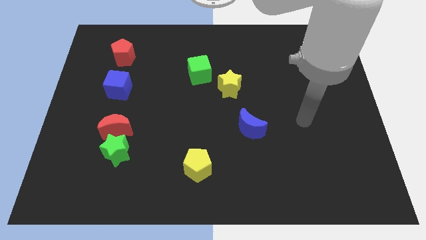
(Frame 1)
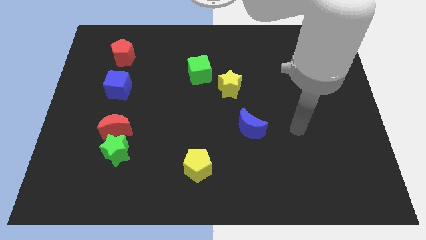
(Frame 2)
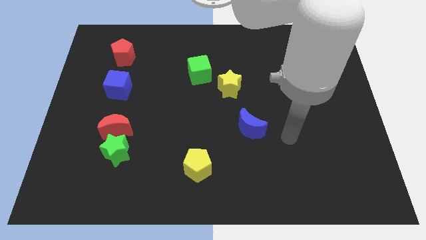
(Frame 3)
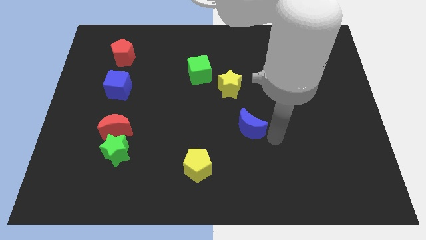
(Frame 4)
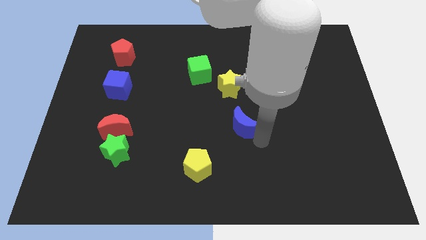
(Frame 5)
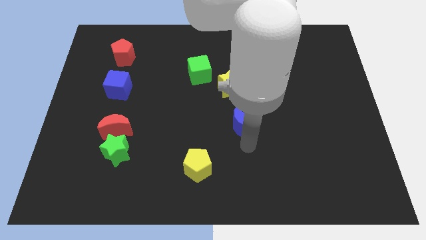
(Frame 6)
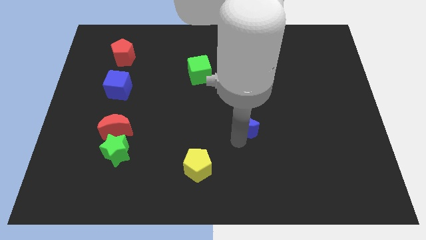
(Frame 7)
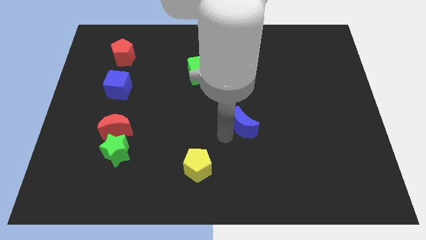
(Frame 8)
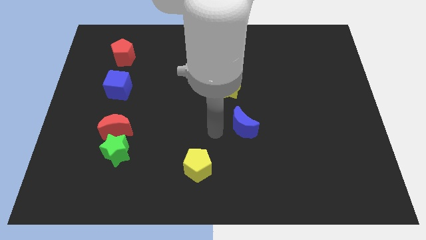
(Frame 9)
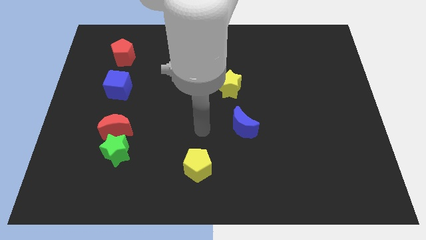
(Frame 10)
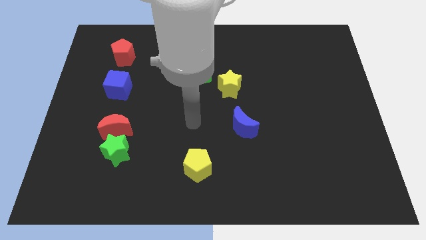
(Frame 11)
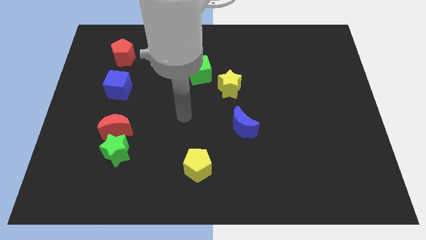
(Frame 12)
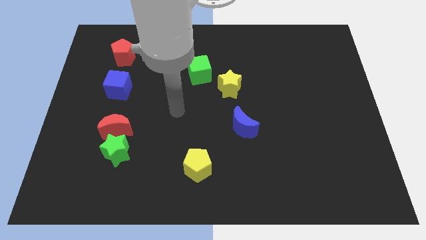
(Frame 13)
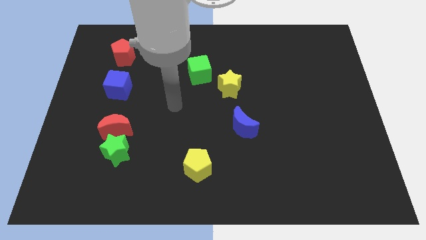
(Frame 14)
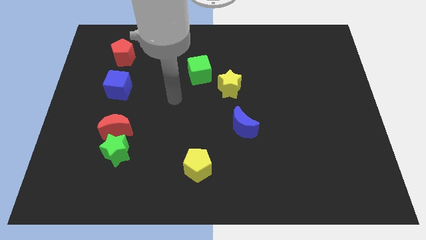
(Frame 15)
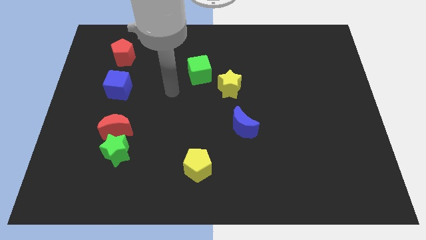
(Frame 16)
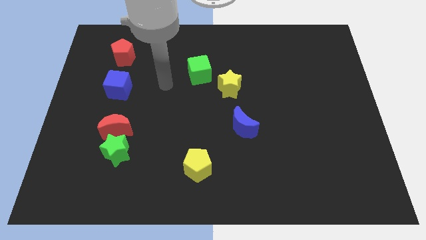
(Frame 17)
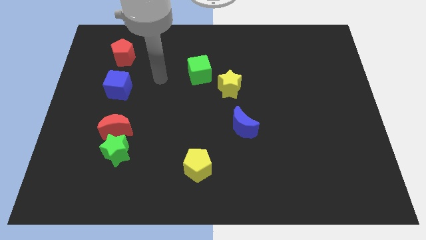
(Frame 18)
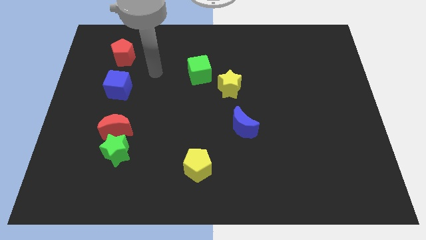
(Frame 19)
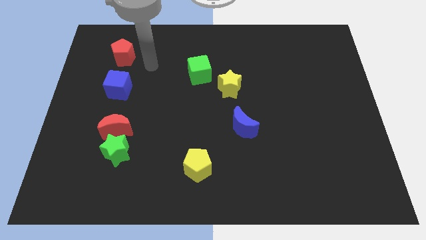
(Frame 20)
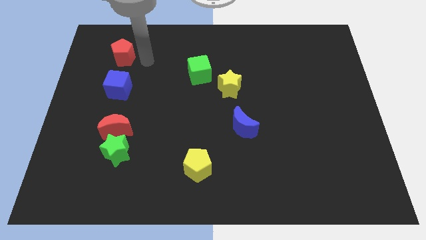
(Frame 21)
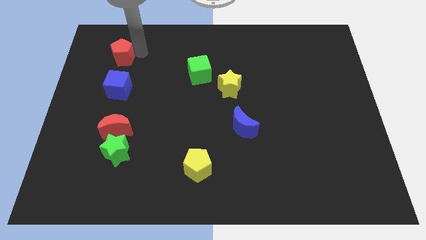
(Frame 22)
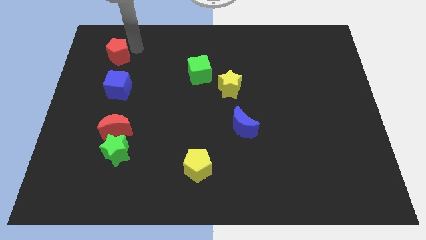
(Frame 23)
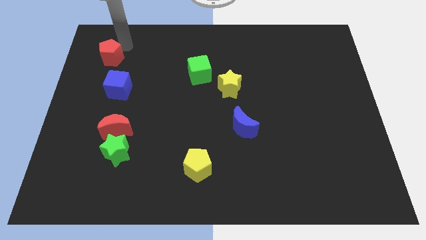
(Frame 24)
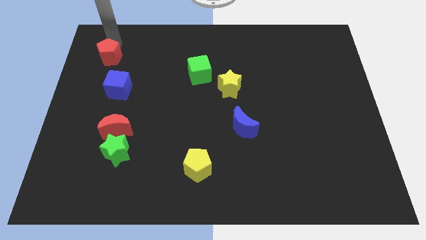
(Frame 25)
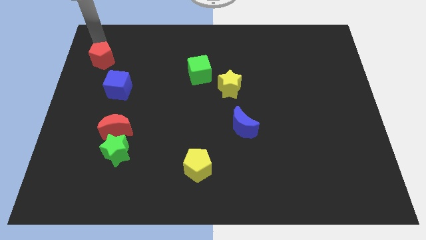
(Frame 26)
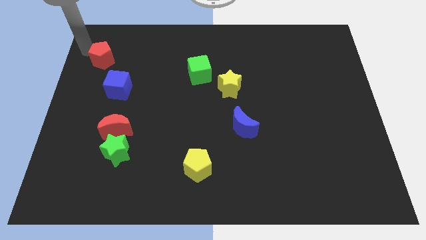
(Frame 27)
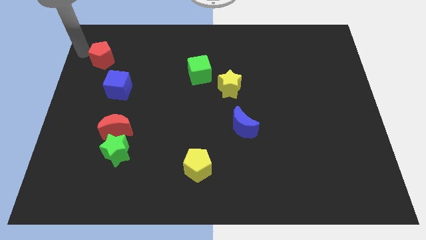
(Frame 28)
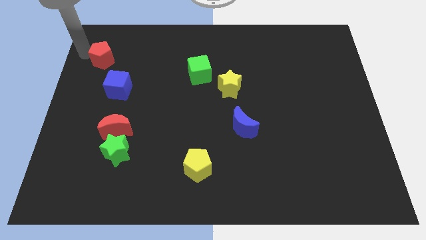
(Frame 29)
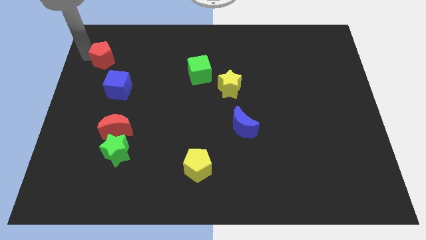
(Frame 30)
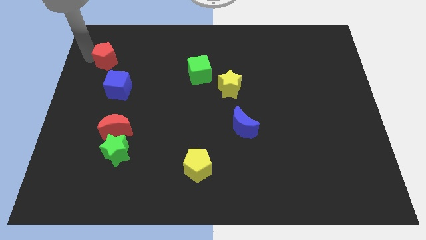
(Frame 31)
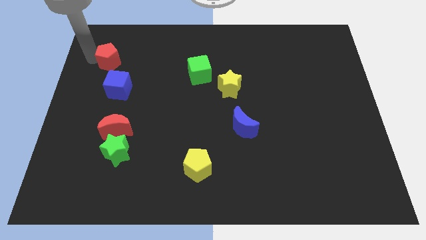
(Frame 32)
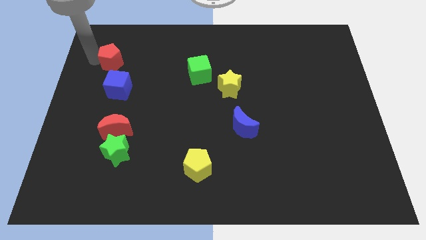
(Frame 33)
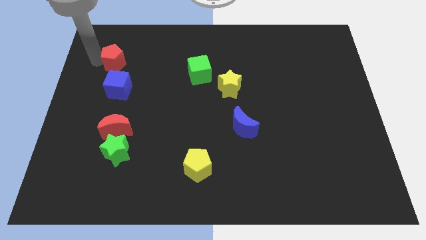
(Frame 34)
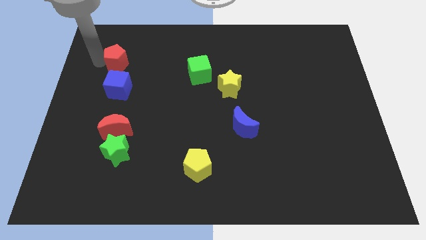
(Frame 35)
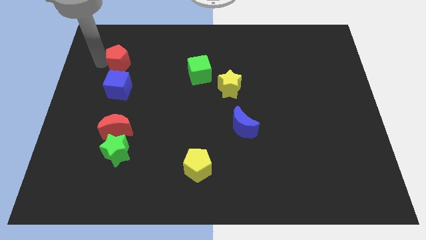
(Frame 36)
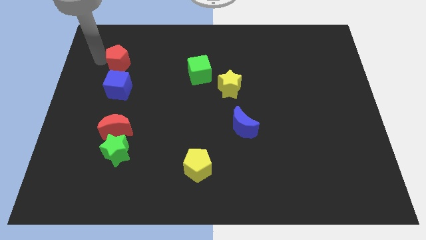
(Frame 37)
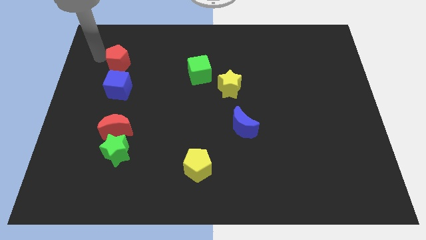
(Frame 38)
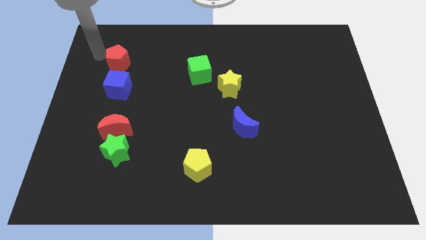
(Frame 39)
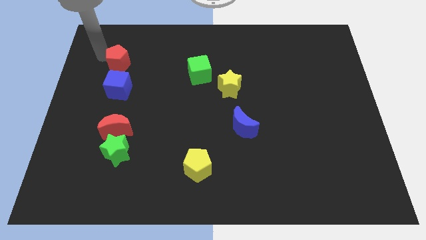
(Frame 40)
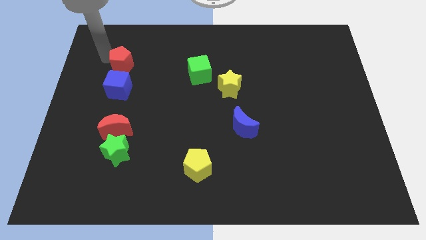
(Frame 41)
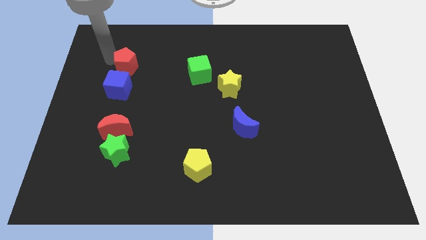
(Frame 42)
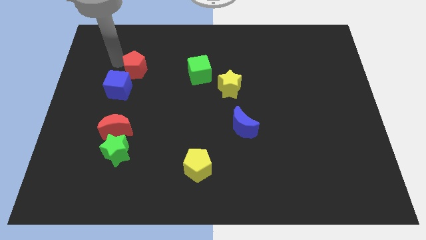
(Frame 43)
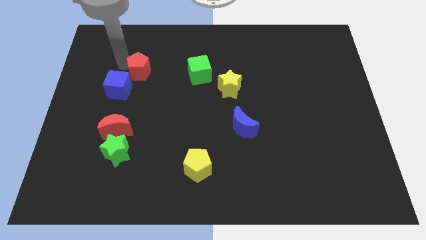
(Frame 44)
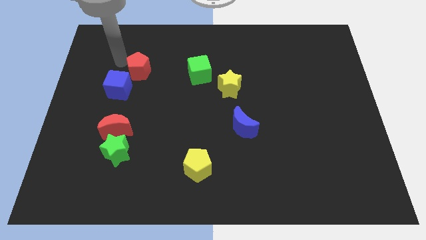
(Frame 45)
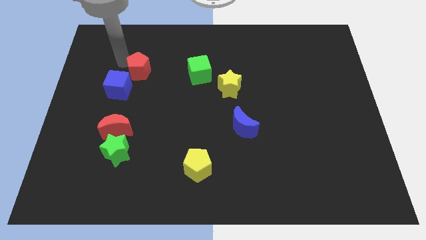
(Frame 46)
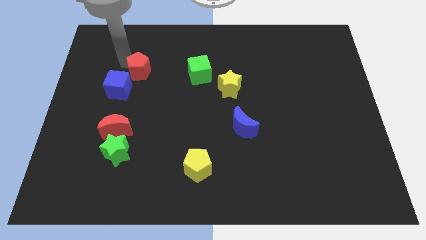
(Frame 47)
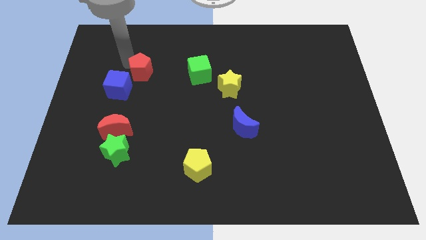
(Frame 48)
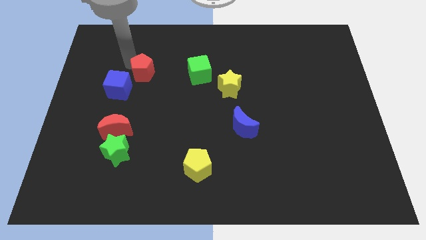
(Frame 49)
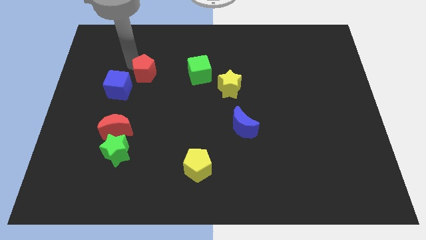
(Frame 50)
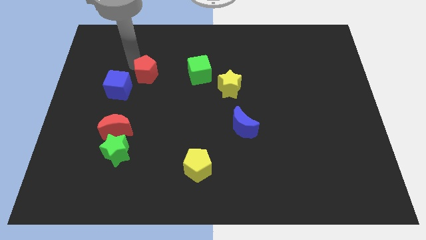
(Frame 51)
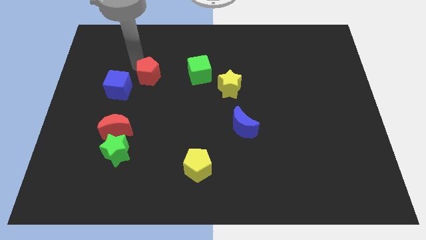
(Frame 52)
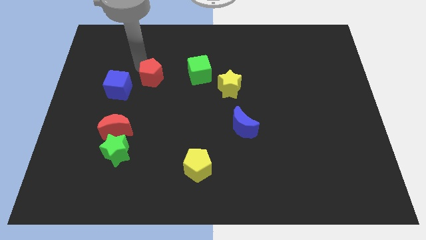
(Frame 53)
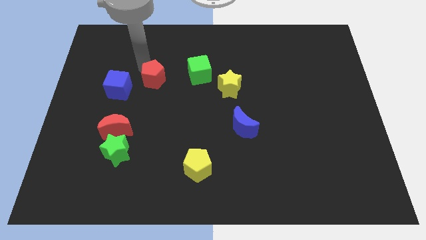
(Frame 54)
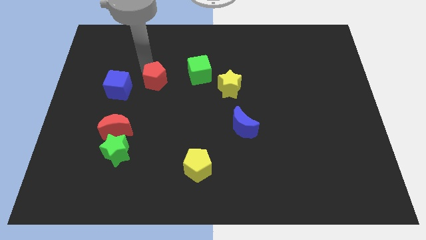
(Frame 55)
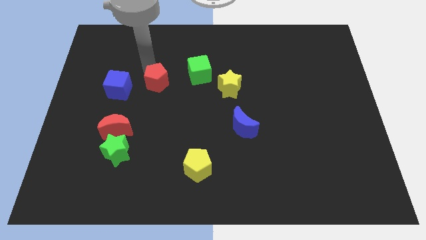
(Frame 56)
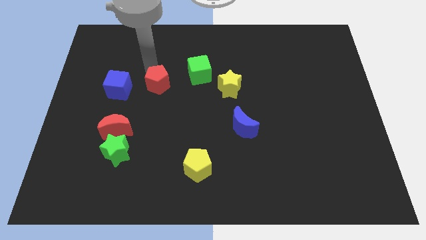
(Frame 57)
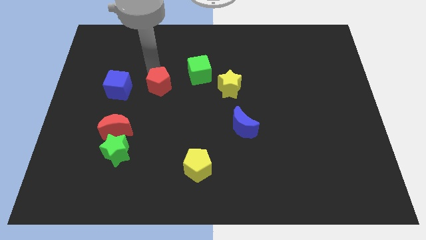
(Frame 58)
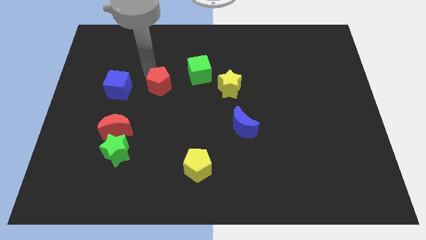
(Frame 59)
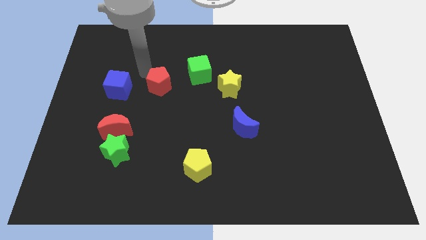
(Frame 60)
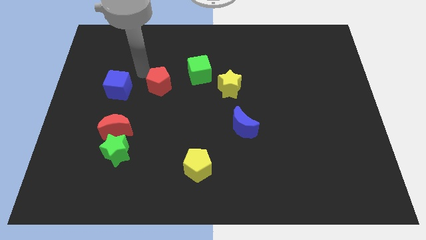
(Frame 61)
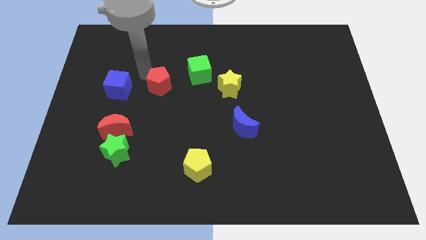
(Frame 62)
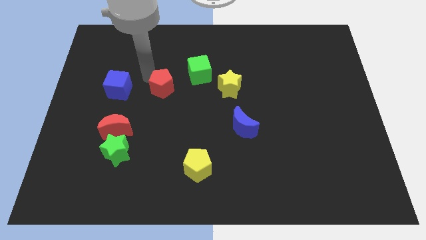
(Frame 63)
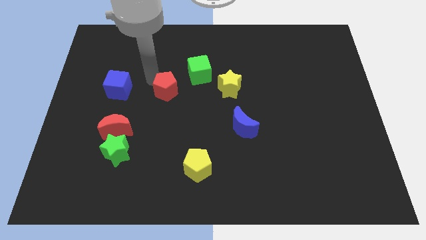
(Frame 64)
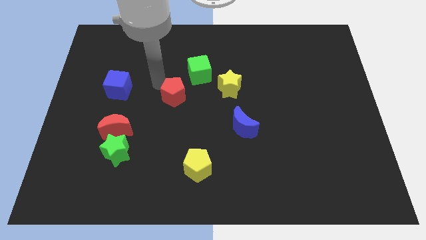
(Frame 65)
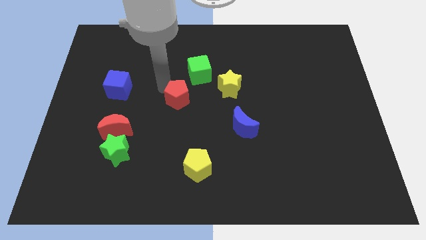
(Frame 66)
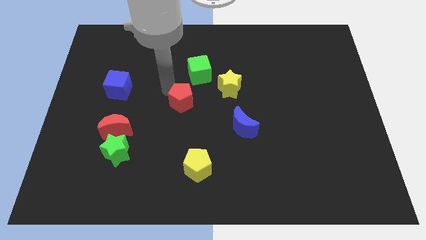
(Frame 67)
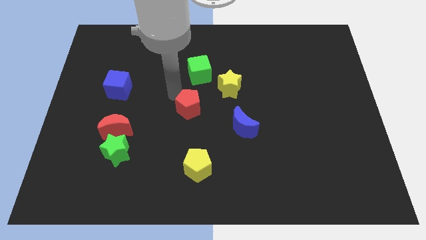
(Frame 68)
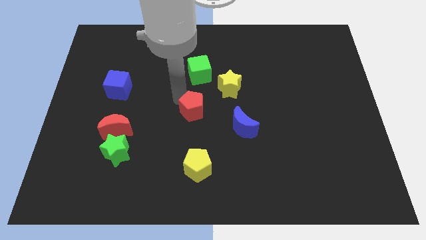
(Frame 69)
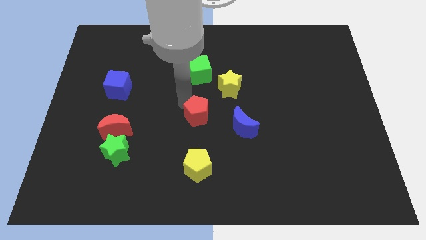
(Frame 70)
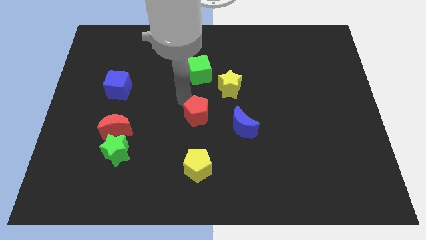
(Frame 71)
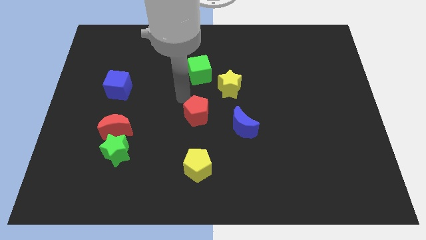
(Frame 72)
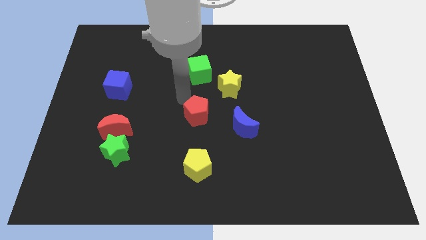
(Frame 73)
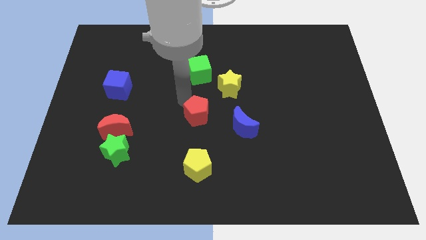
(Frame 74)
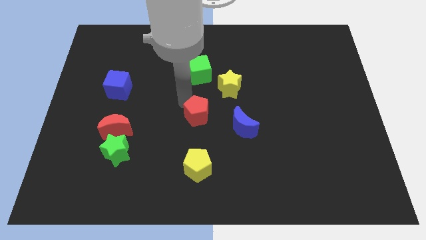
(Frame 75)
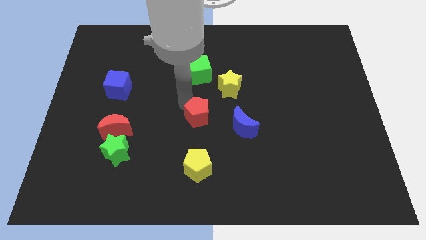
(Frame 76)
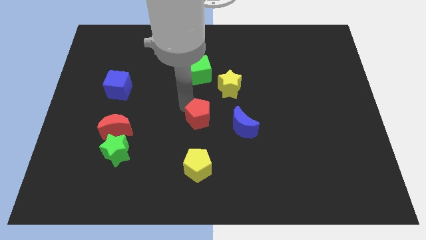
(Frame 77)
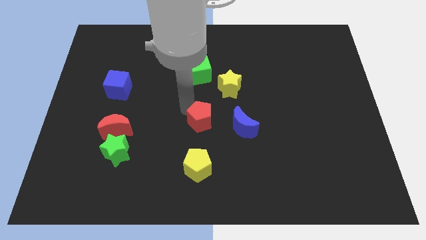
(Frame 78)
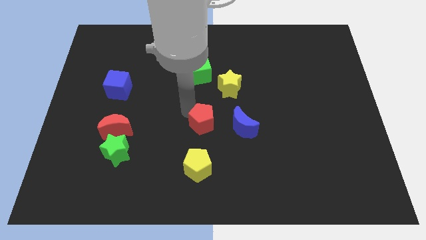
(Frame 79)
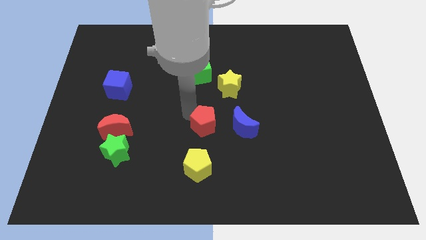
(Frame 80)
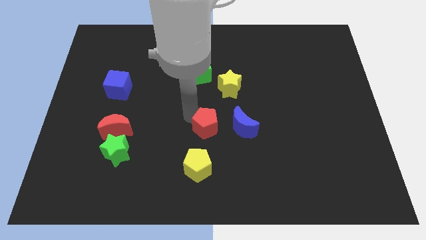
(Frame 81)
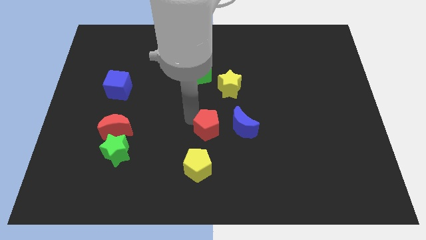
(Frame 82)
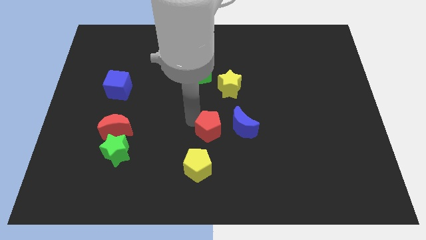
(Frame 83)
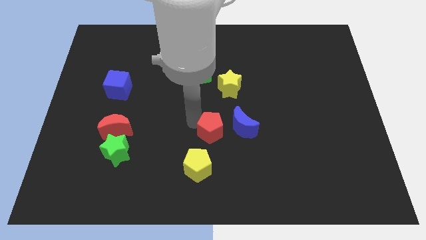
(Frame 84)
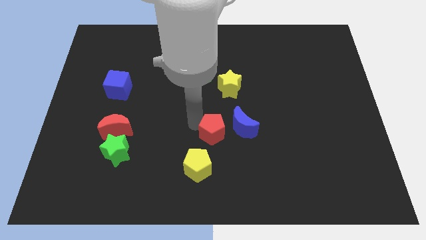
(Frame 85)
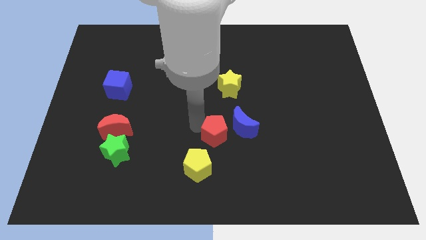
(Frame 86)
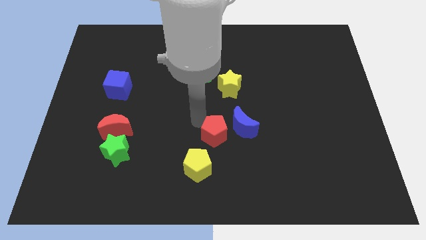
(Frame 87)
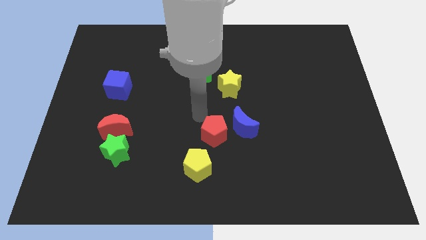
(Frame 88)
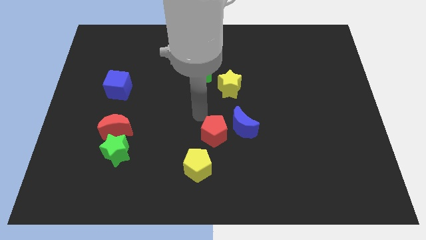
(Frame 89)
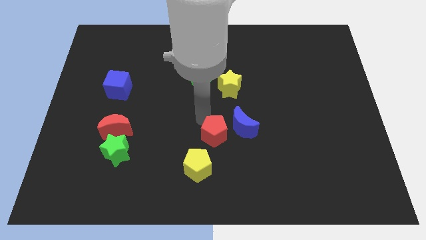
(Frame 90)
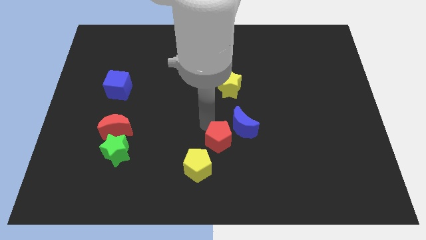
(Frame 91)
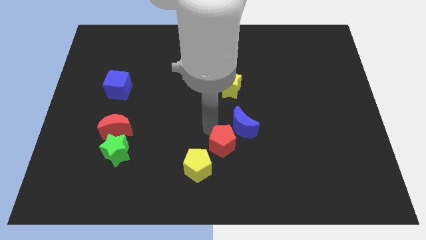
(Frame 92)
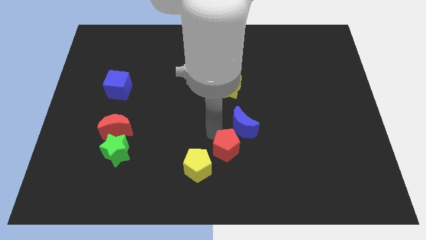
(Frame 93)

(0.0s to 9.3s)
slide the red pentagon to the right of the yellow pentagon
